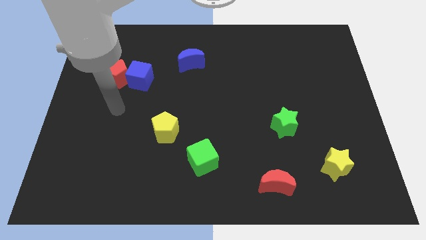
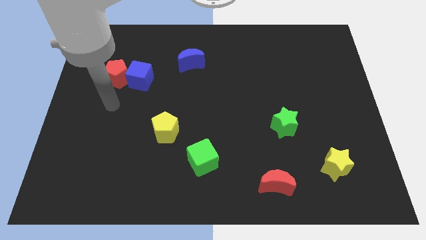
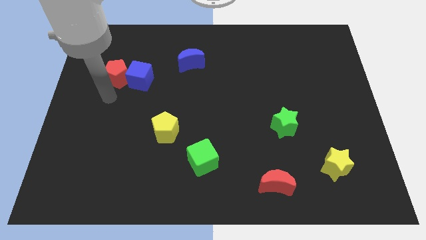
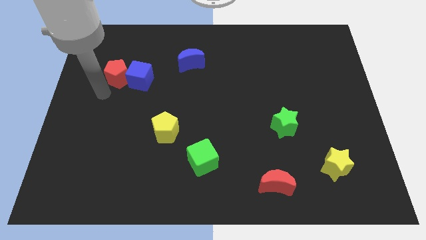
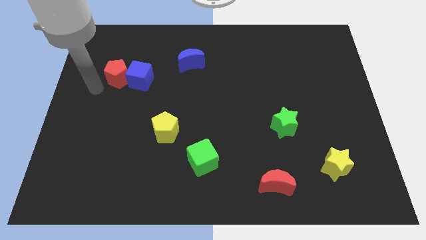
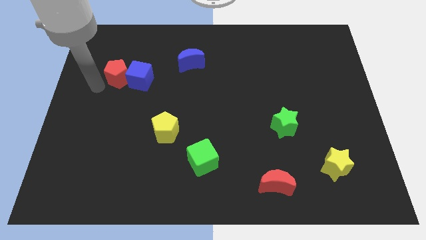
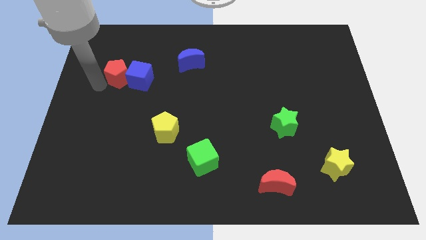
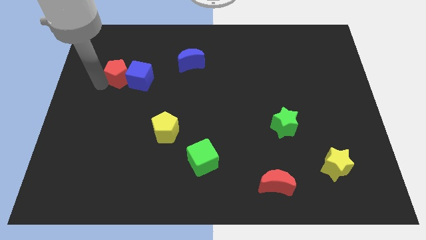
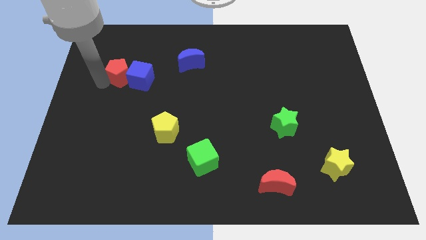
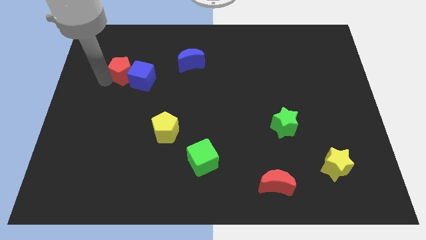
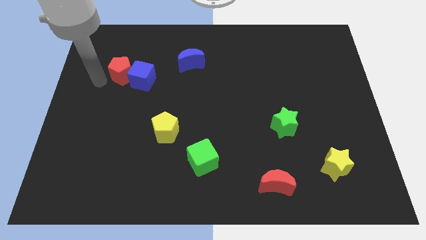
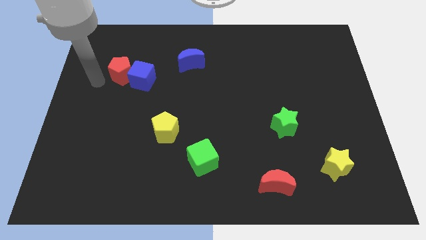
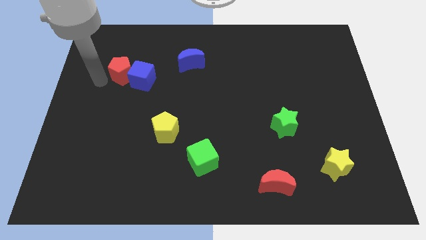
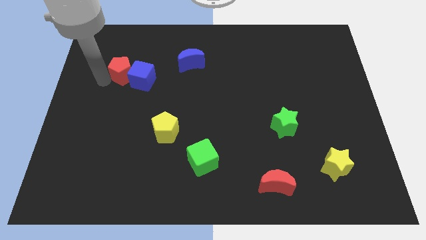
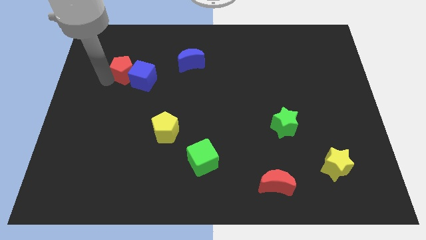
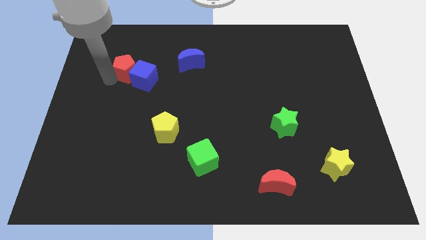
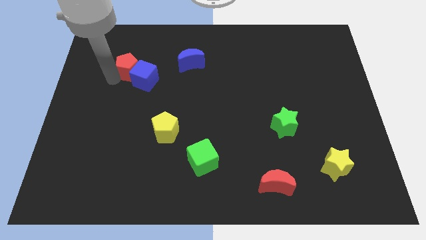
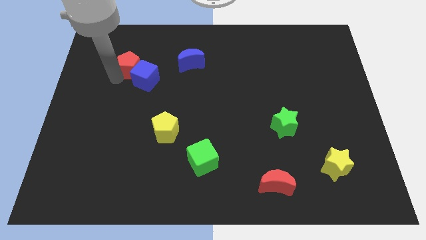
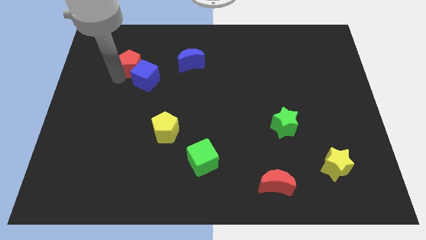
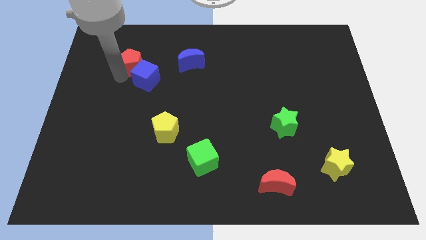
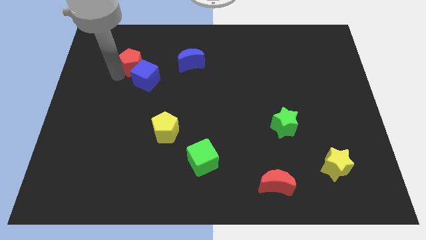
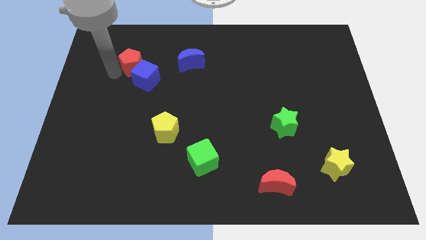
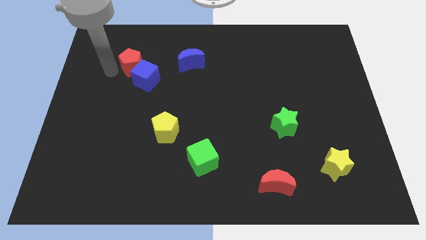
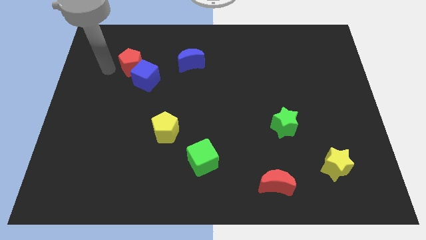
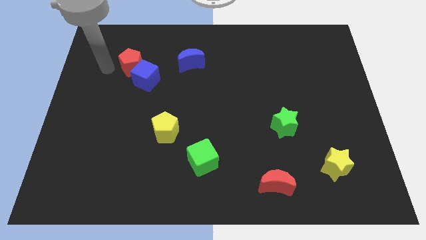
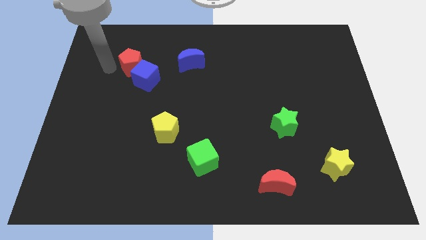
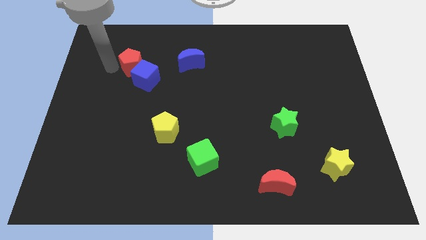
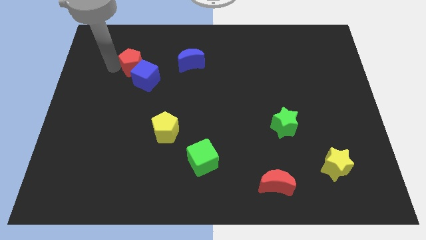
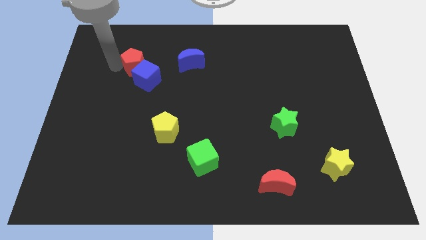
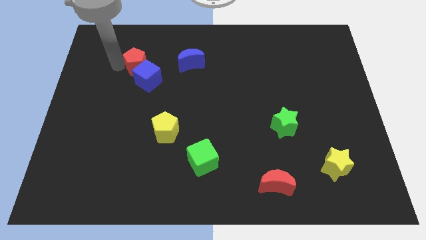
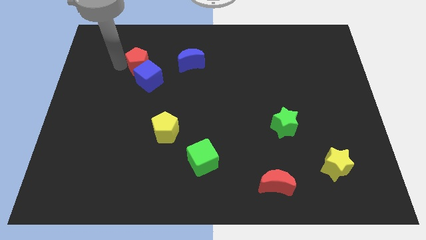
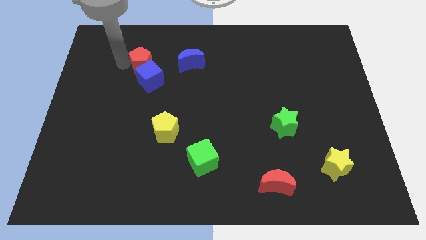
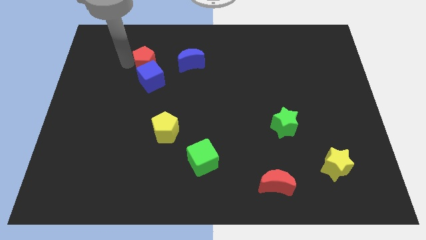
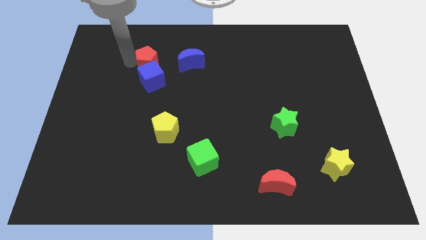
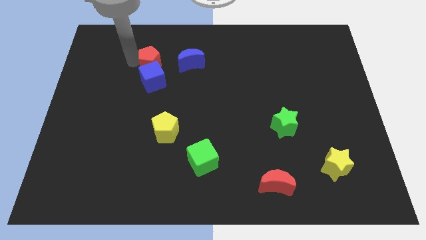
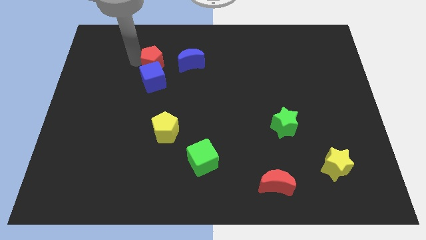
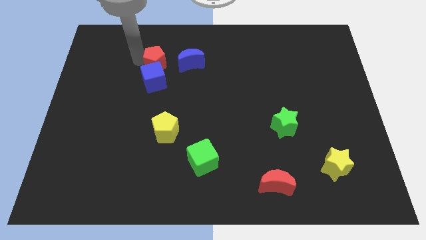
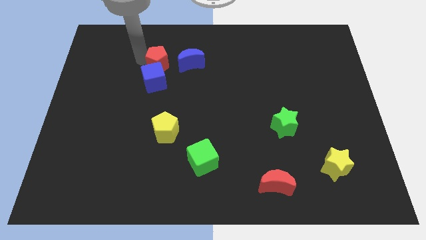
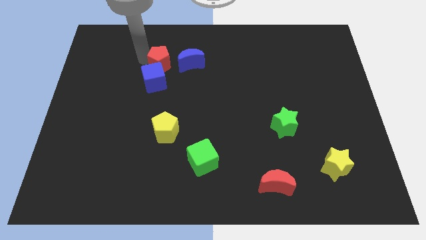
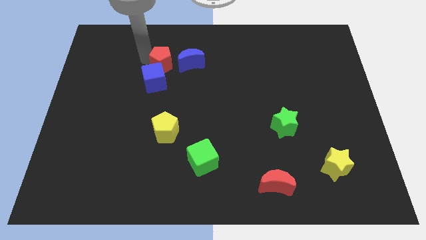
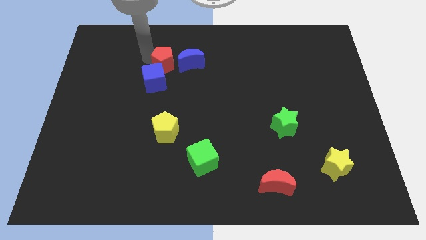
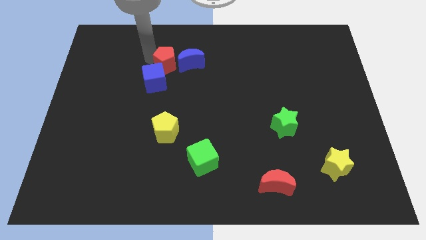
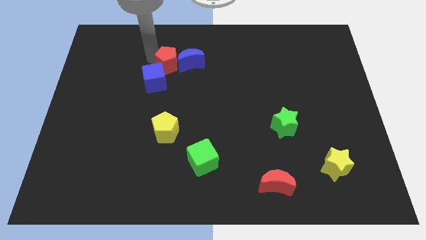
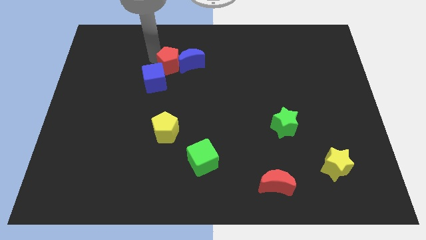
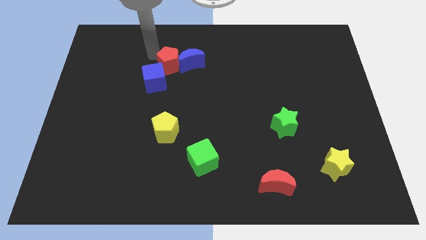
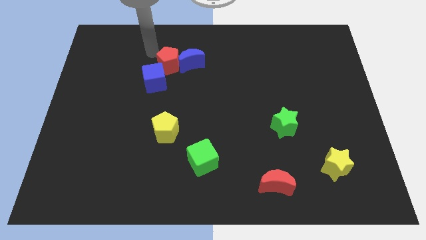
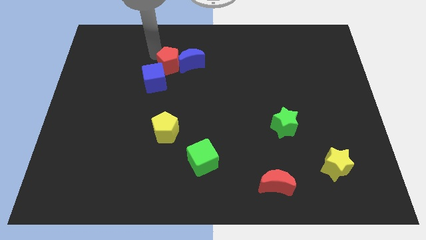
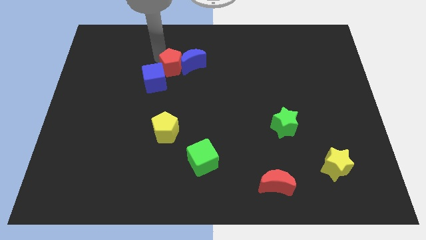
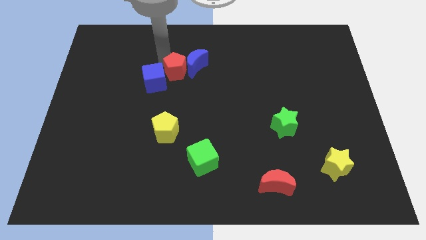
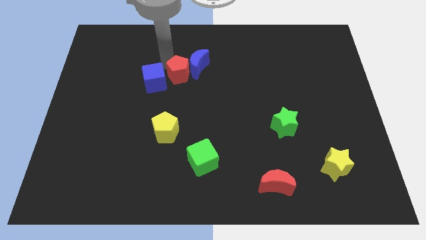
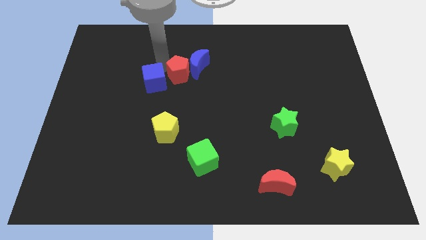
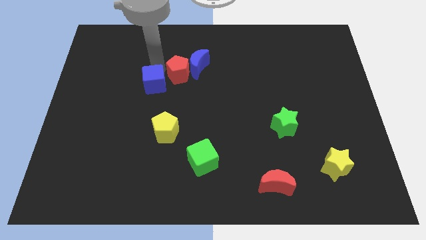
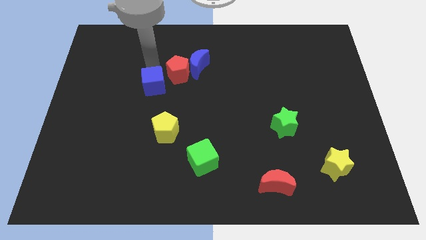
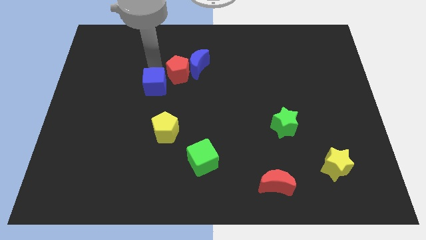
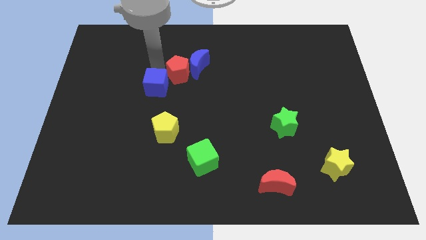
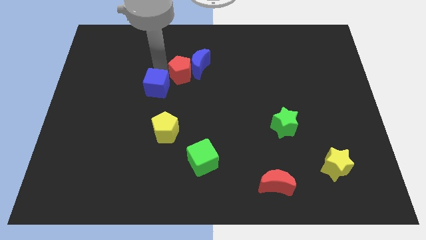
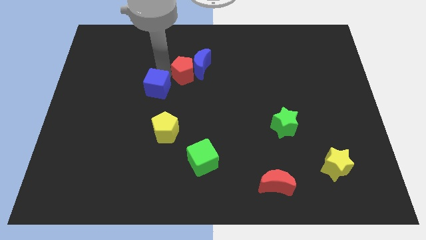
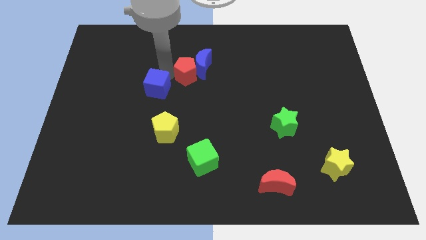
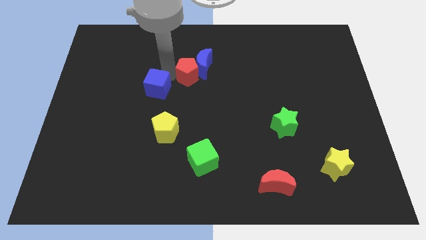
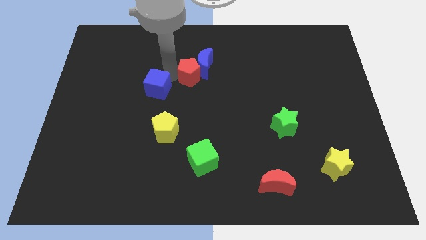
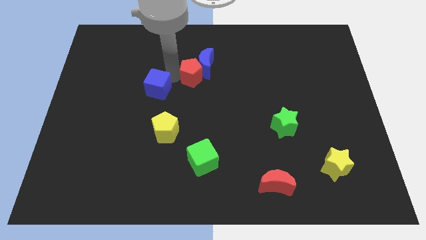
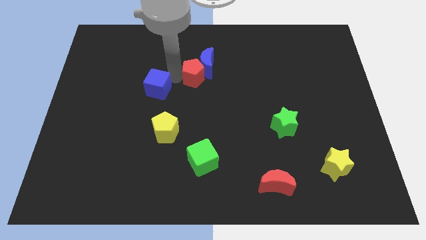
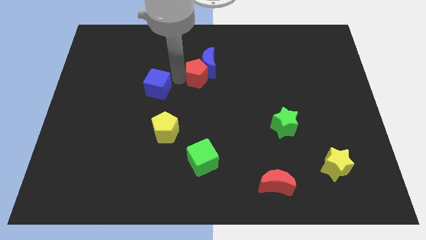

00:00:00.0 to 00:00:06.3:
slide the red pentagon right

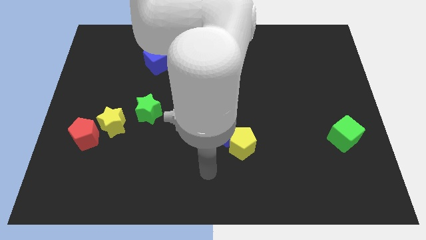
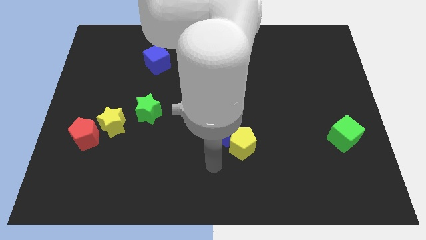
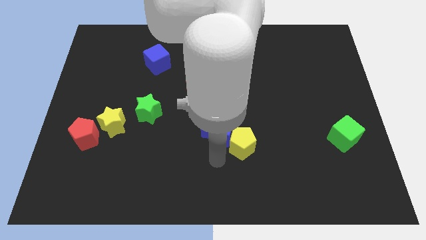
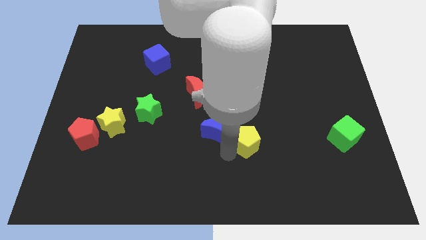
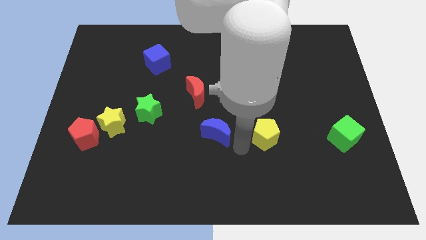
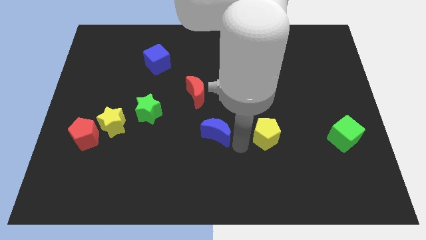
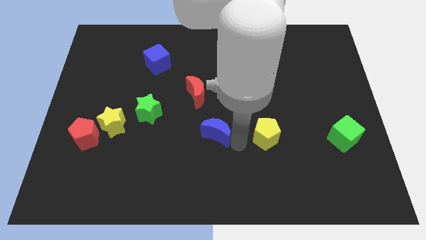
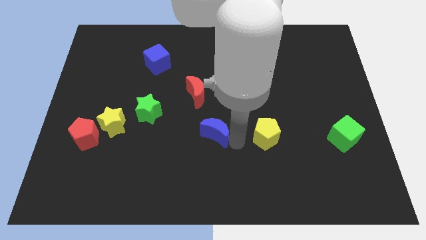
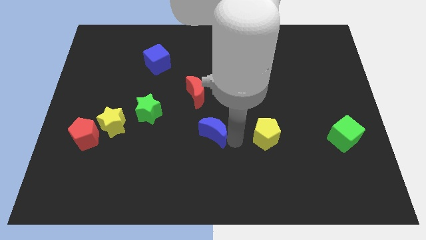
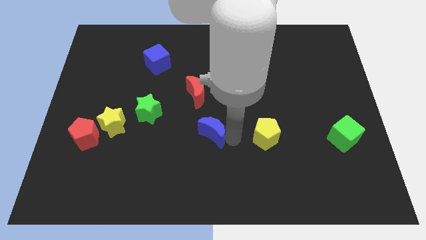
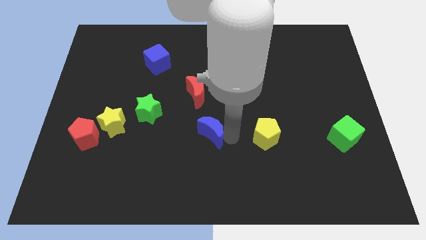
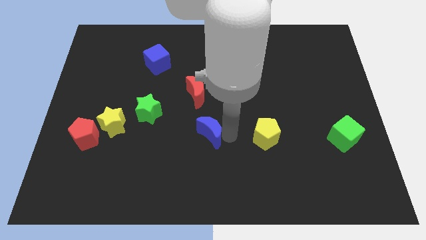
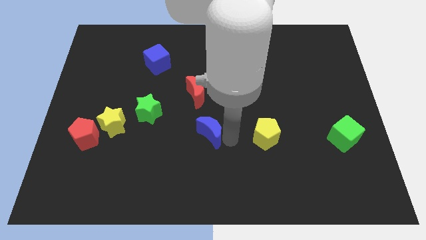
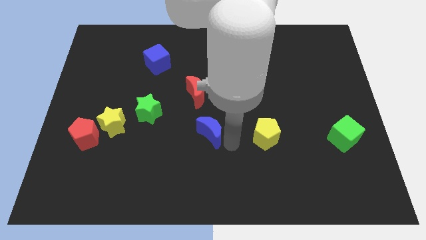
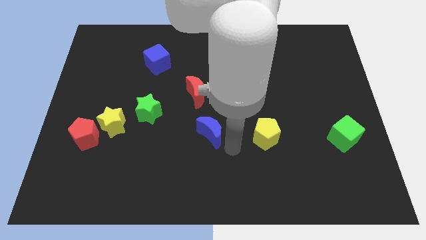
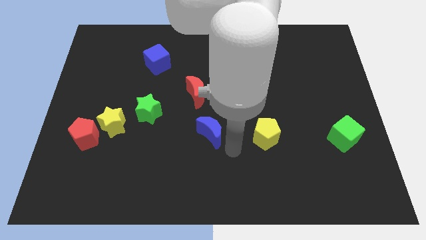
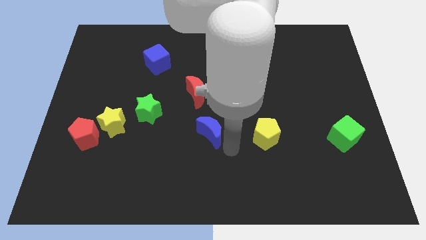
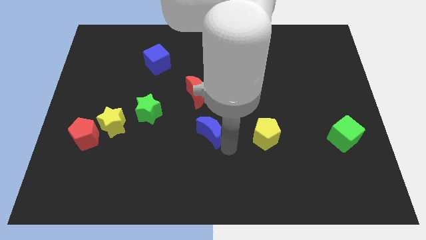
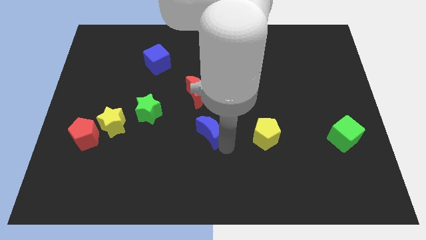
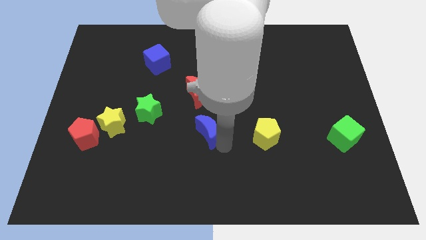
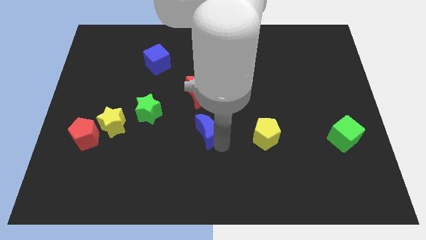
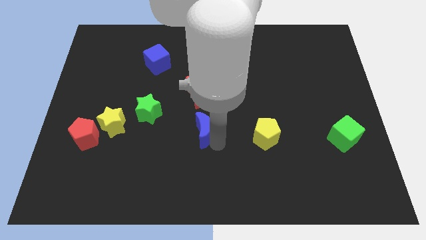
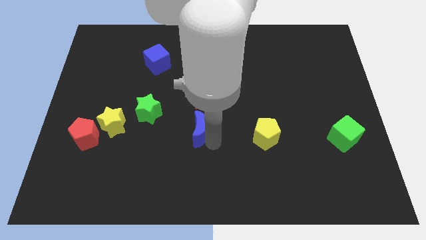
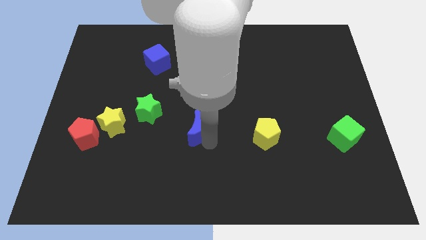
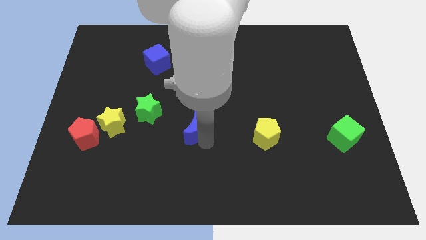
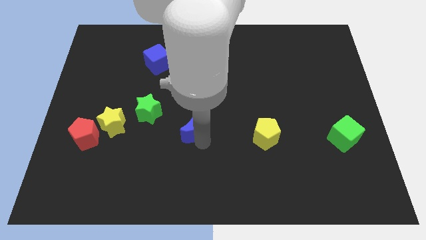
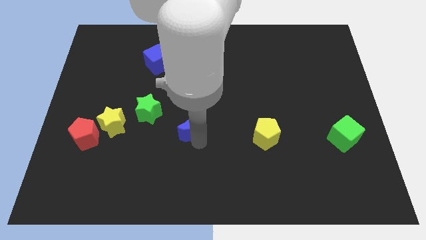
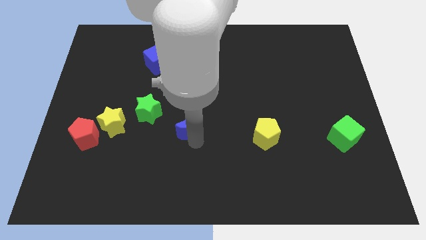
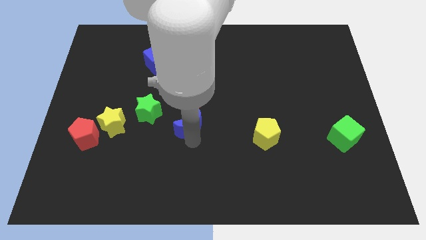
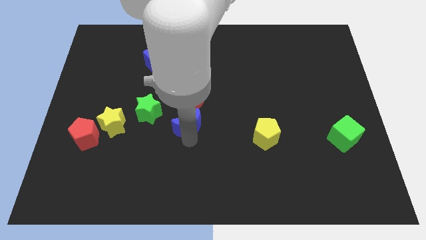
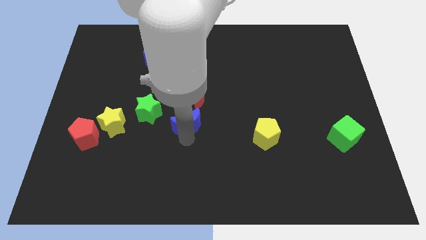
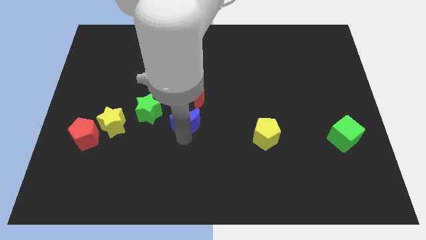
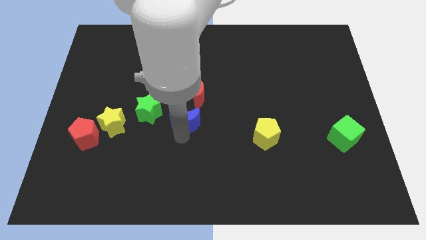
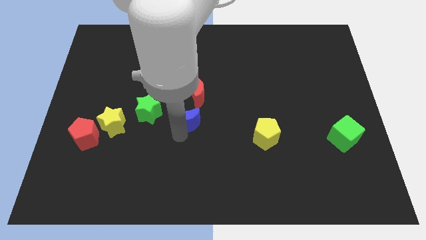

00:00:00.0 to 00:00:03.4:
slide the blue moon diagonally upwards and to the left somewhat
